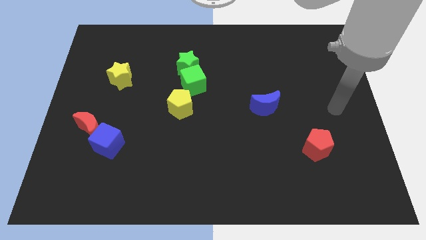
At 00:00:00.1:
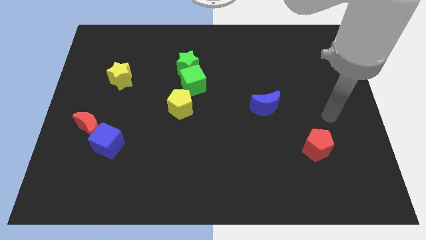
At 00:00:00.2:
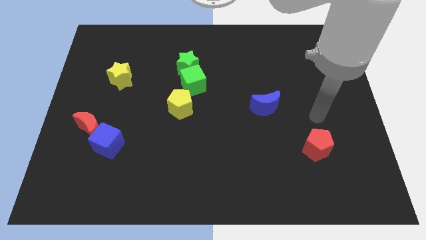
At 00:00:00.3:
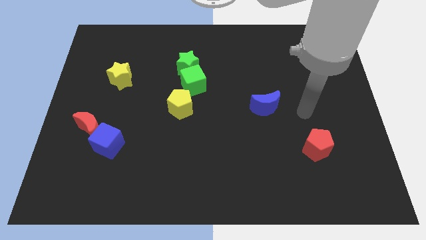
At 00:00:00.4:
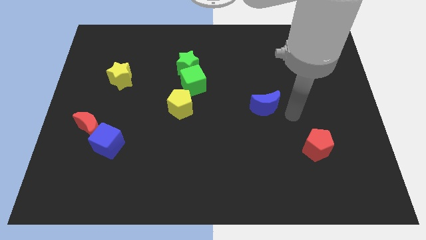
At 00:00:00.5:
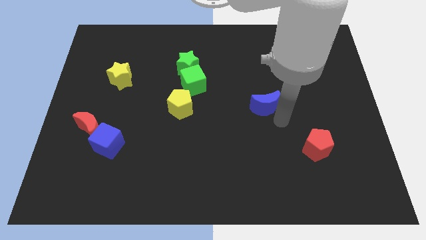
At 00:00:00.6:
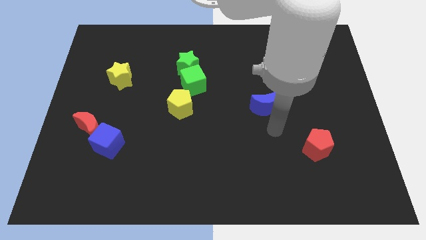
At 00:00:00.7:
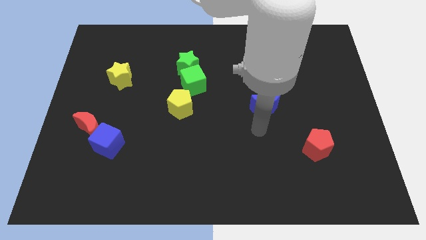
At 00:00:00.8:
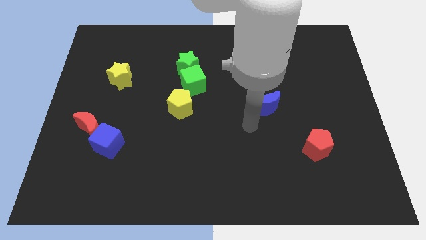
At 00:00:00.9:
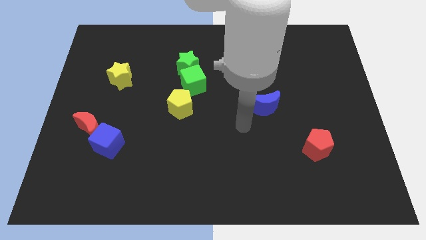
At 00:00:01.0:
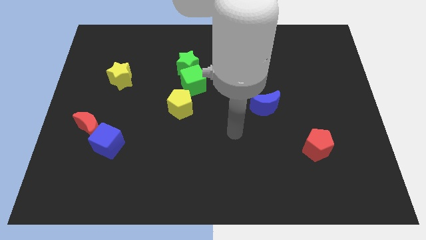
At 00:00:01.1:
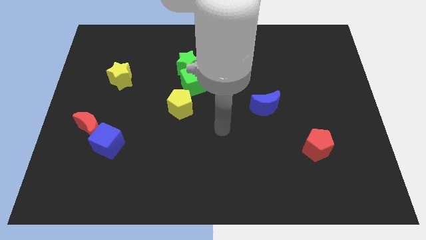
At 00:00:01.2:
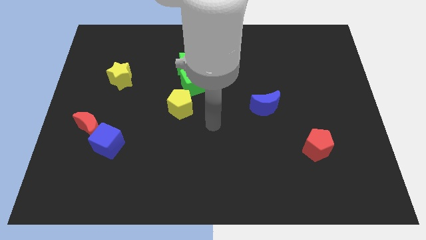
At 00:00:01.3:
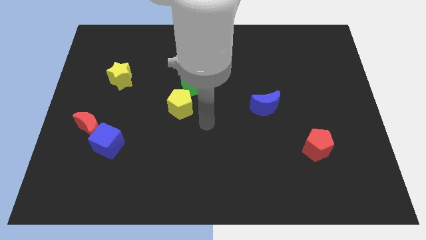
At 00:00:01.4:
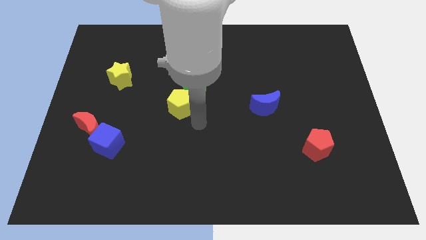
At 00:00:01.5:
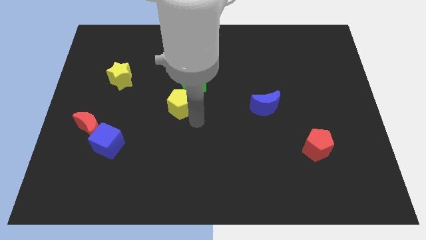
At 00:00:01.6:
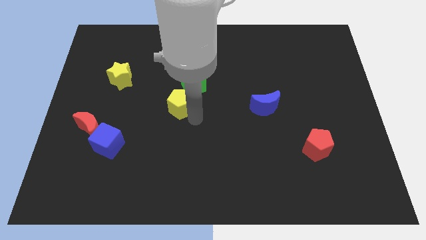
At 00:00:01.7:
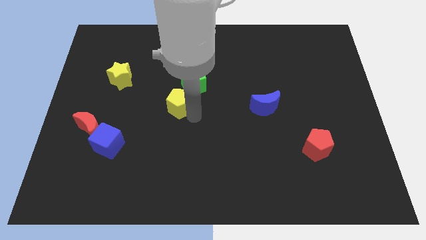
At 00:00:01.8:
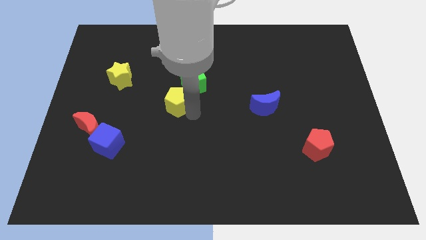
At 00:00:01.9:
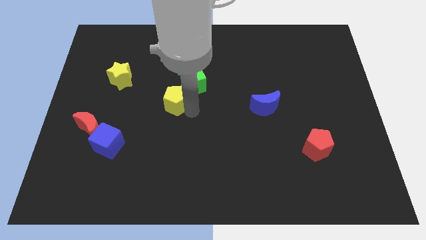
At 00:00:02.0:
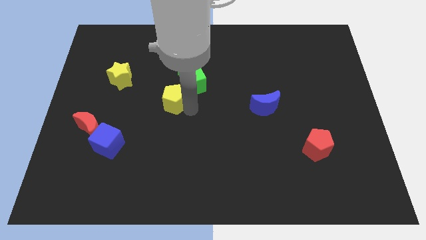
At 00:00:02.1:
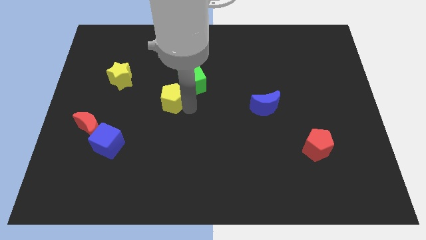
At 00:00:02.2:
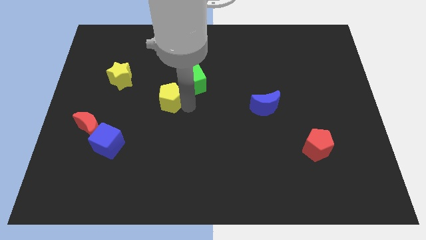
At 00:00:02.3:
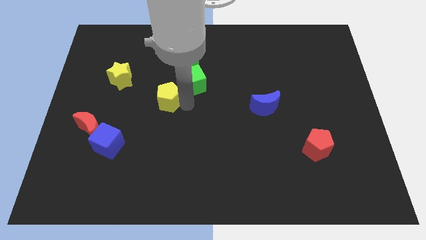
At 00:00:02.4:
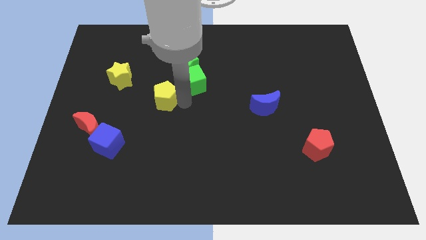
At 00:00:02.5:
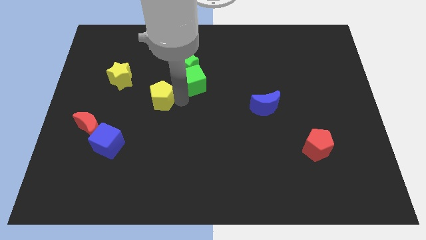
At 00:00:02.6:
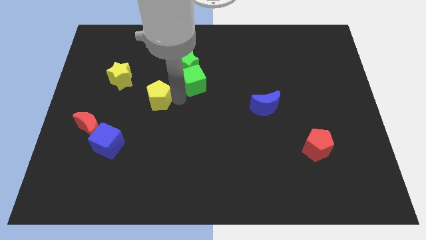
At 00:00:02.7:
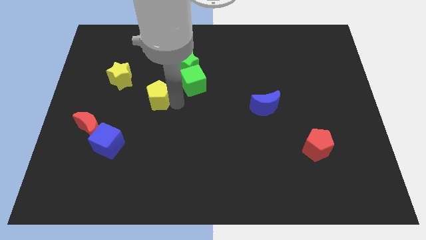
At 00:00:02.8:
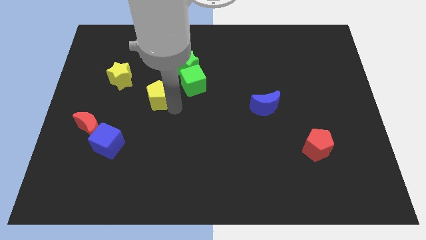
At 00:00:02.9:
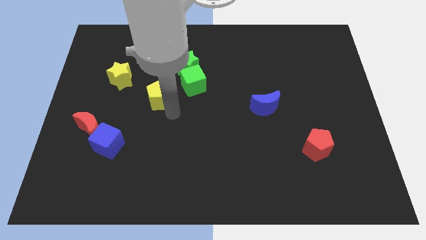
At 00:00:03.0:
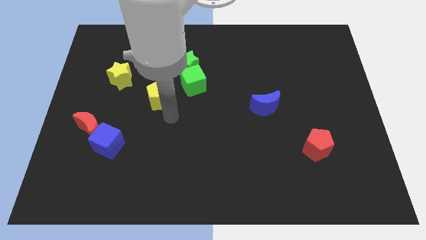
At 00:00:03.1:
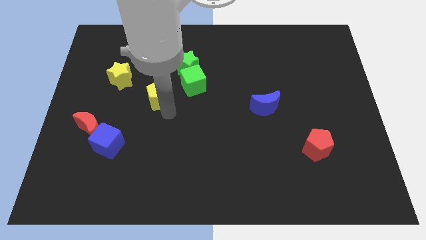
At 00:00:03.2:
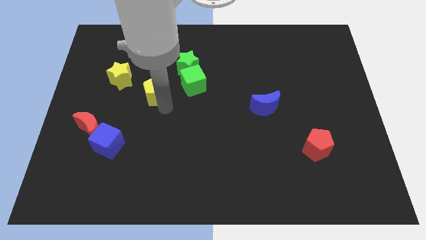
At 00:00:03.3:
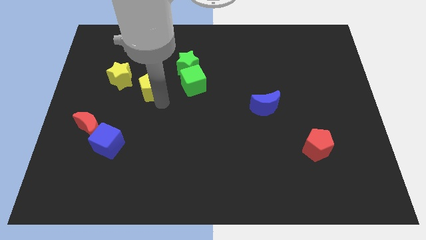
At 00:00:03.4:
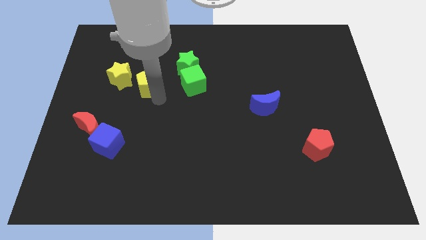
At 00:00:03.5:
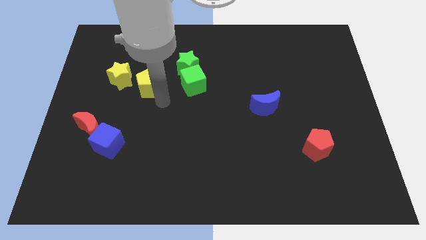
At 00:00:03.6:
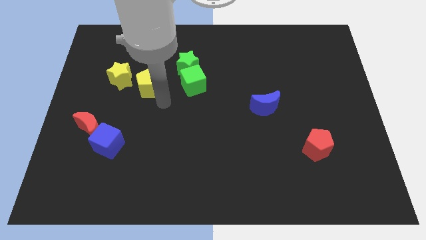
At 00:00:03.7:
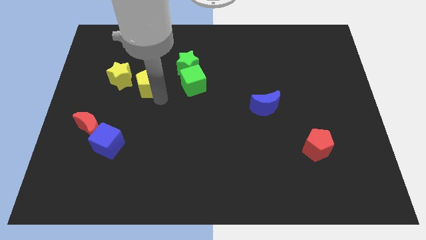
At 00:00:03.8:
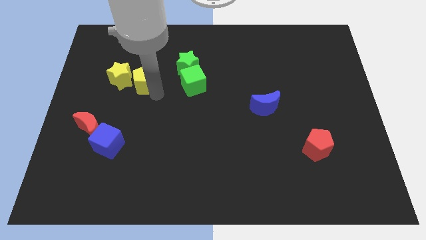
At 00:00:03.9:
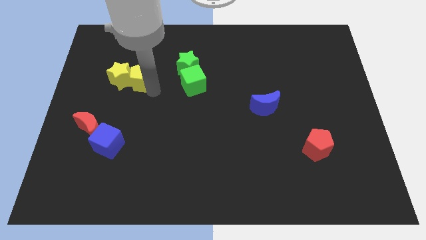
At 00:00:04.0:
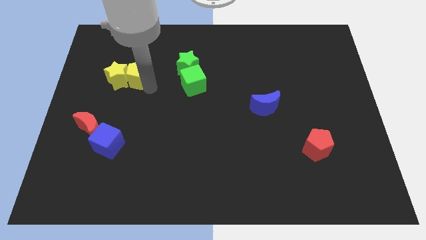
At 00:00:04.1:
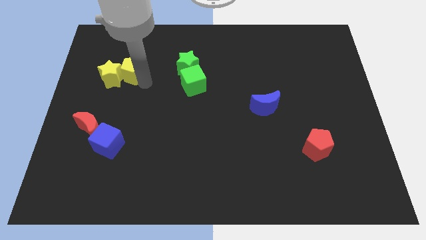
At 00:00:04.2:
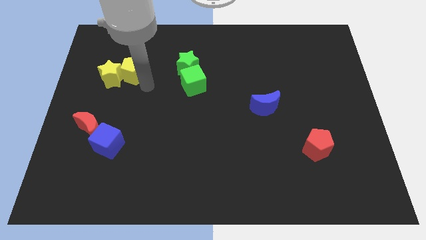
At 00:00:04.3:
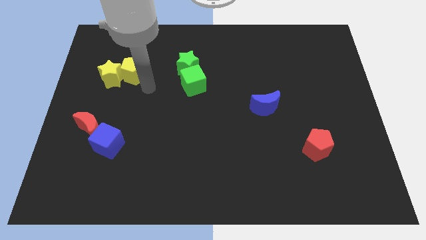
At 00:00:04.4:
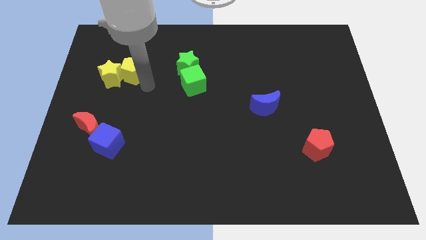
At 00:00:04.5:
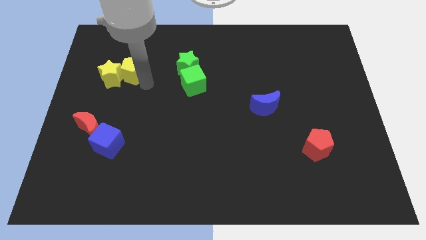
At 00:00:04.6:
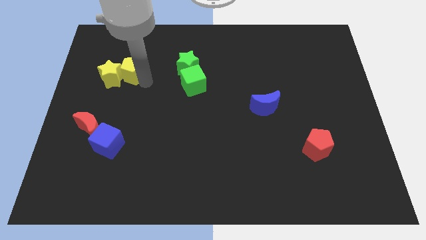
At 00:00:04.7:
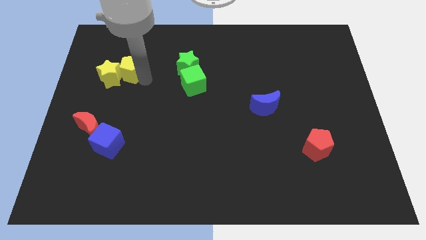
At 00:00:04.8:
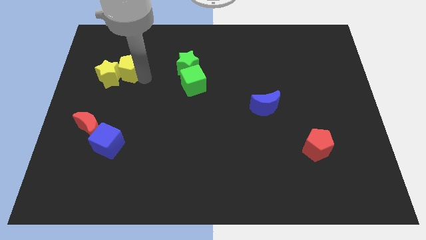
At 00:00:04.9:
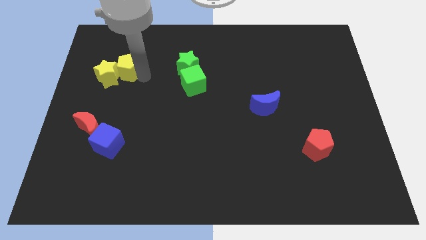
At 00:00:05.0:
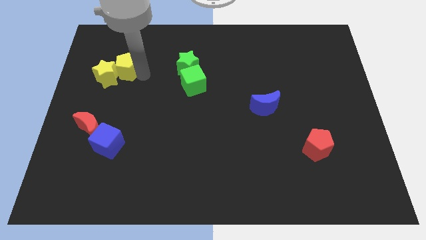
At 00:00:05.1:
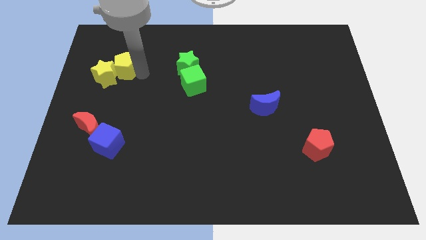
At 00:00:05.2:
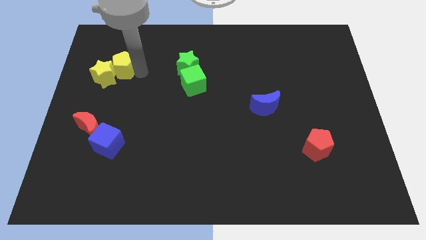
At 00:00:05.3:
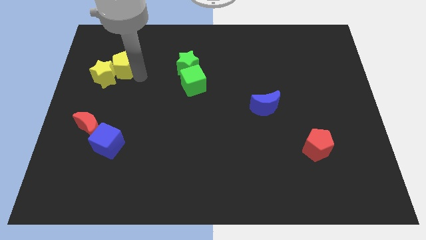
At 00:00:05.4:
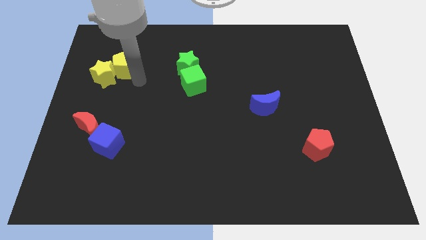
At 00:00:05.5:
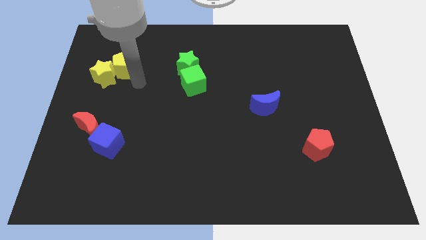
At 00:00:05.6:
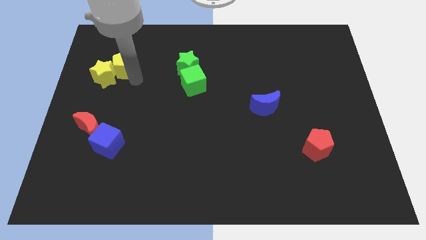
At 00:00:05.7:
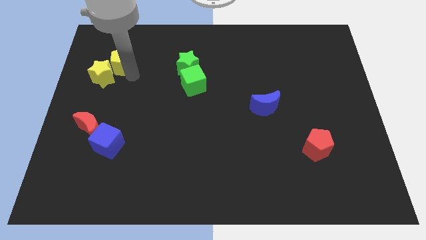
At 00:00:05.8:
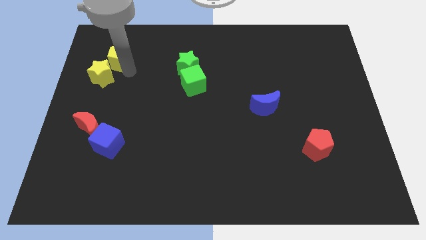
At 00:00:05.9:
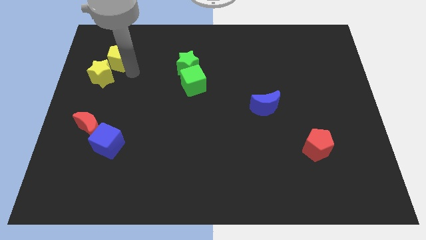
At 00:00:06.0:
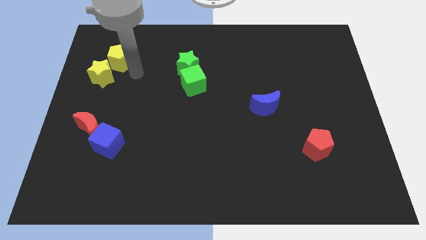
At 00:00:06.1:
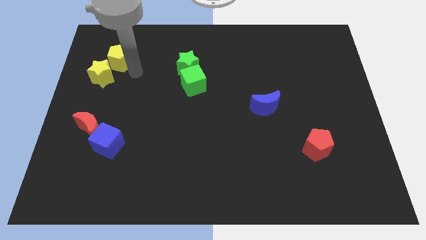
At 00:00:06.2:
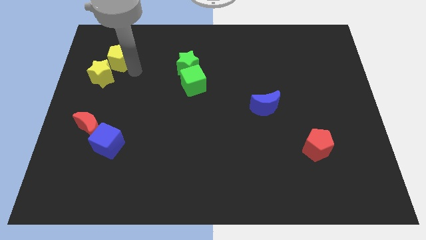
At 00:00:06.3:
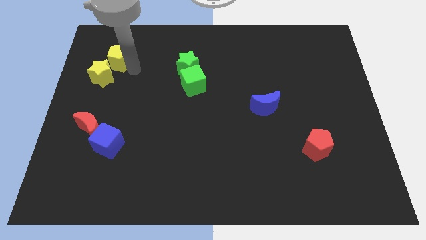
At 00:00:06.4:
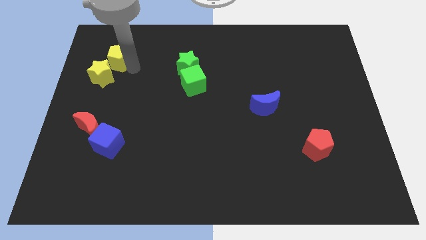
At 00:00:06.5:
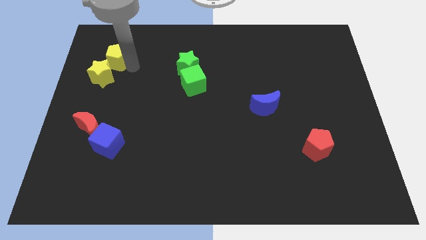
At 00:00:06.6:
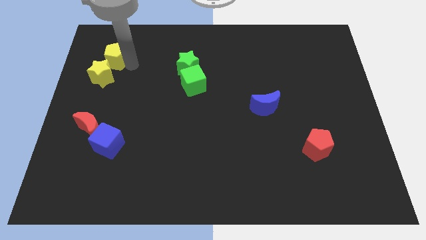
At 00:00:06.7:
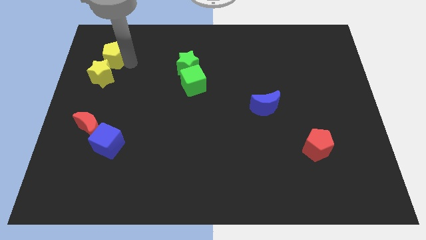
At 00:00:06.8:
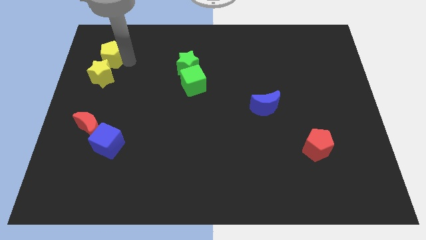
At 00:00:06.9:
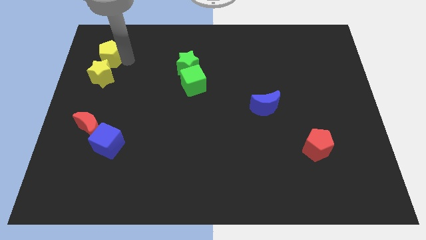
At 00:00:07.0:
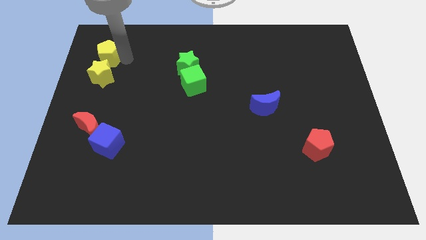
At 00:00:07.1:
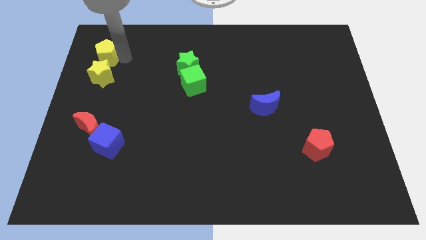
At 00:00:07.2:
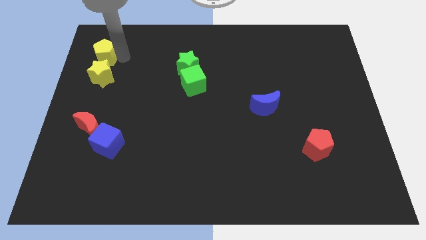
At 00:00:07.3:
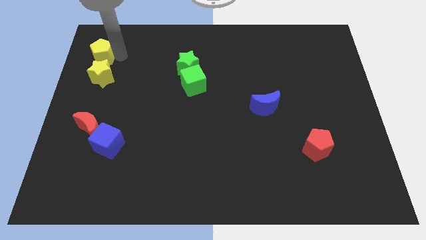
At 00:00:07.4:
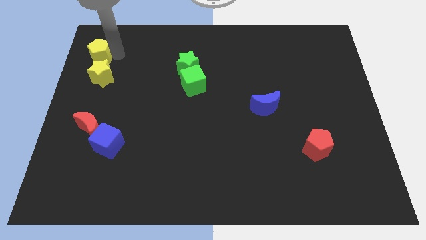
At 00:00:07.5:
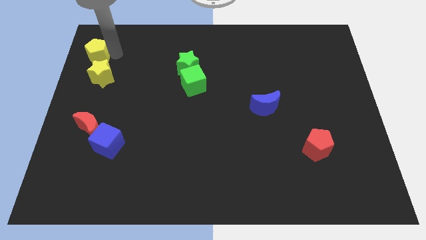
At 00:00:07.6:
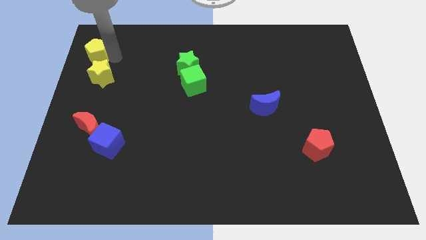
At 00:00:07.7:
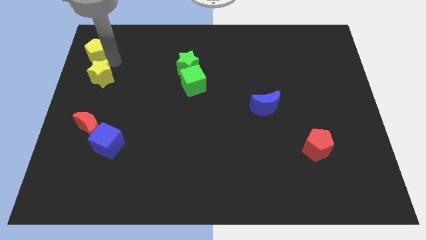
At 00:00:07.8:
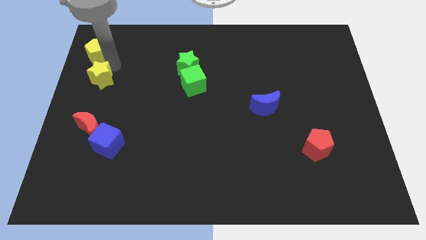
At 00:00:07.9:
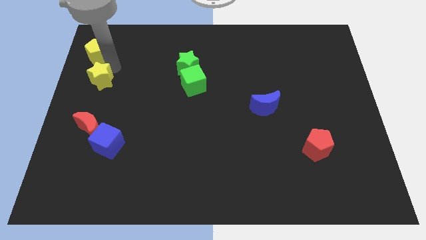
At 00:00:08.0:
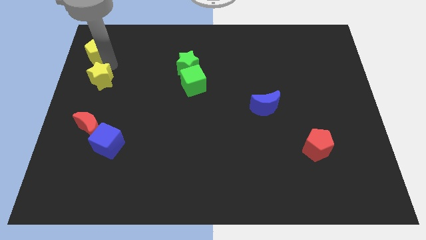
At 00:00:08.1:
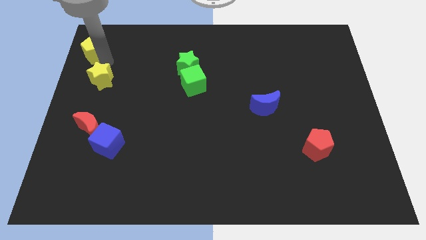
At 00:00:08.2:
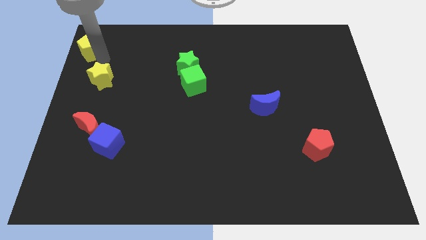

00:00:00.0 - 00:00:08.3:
move the yellow pentagon to the upper left corner
